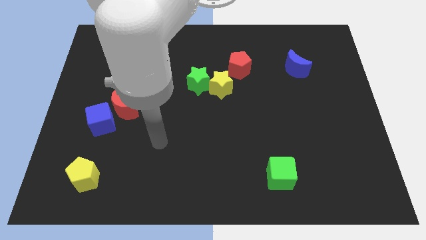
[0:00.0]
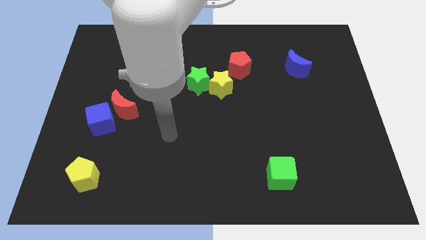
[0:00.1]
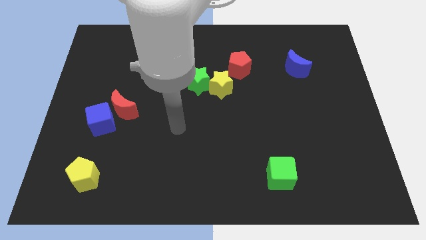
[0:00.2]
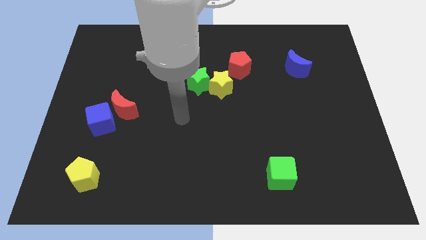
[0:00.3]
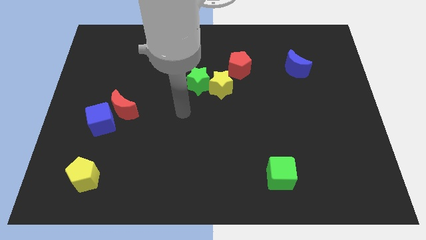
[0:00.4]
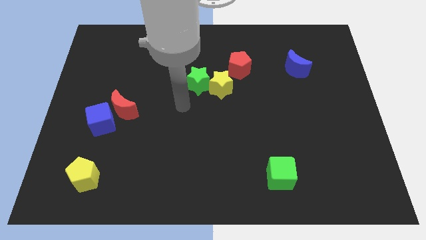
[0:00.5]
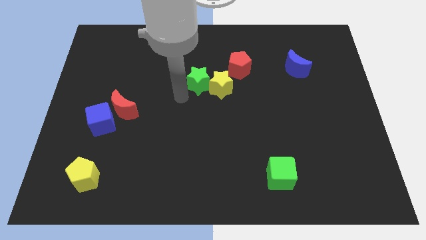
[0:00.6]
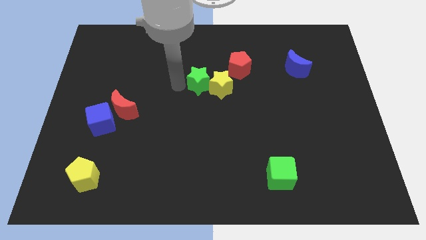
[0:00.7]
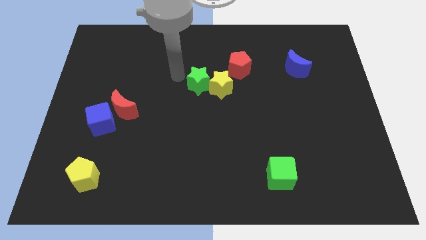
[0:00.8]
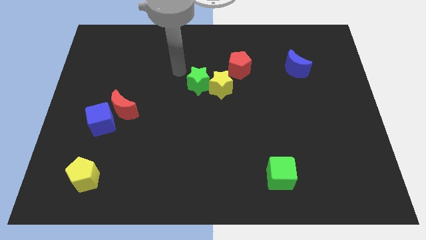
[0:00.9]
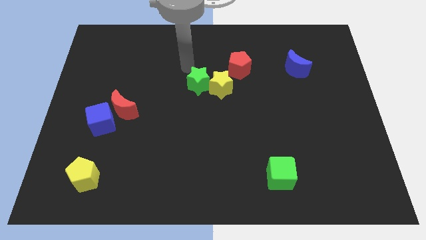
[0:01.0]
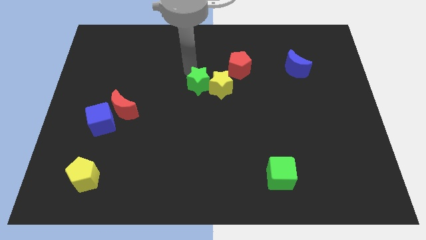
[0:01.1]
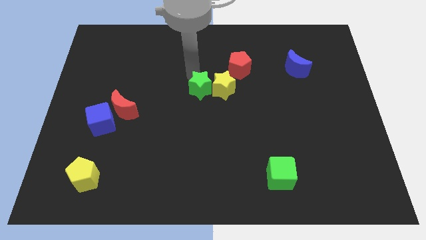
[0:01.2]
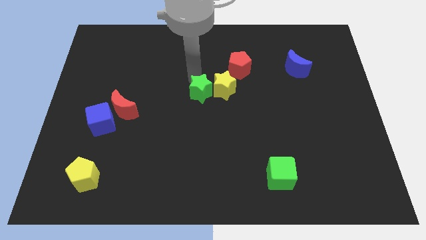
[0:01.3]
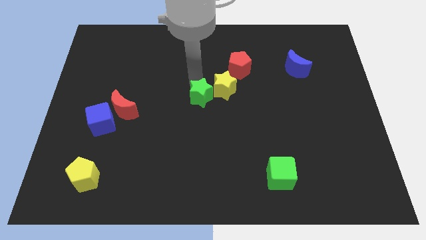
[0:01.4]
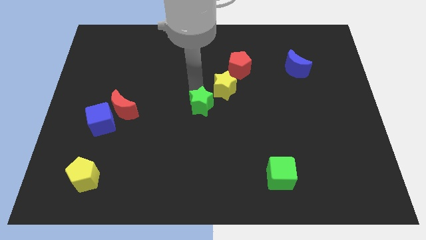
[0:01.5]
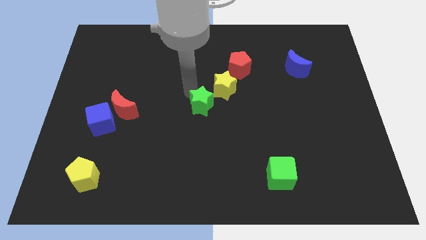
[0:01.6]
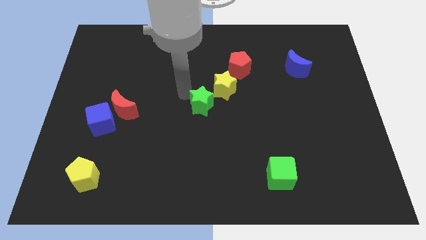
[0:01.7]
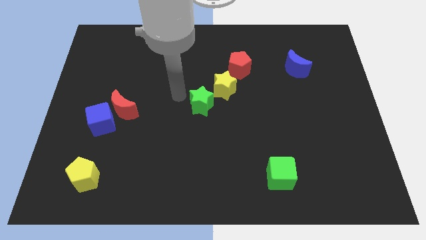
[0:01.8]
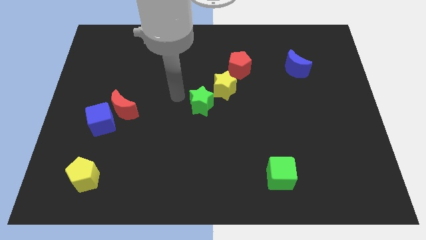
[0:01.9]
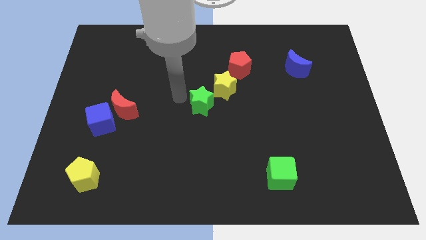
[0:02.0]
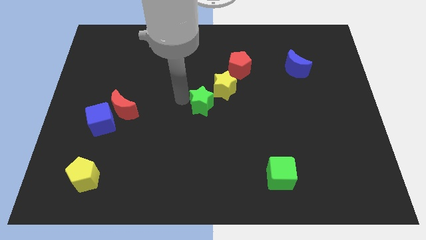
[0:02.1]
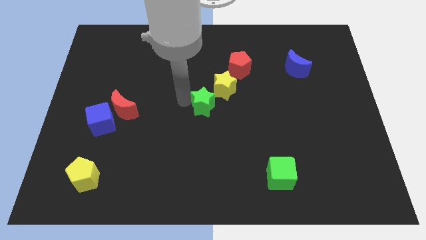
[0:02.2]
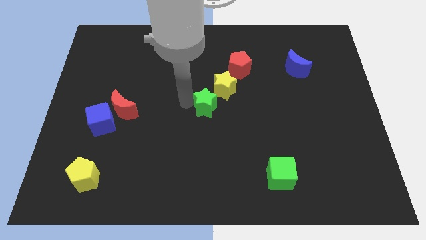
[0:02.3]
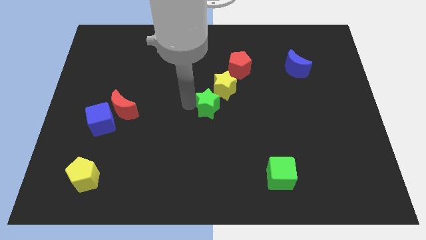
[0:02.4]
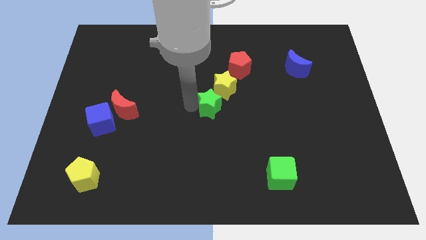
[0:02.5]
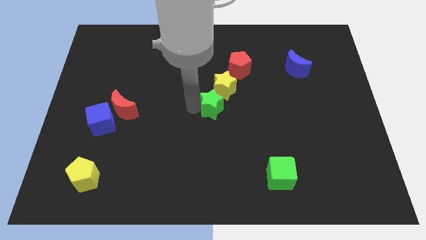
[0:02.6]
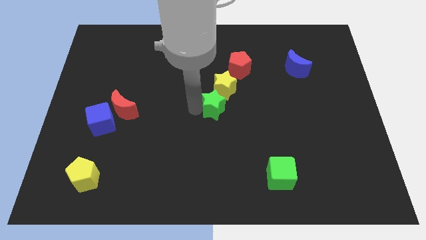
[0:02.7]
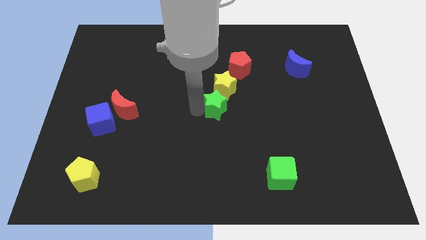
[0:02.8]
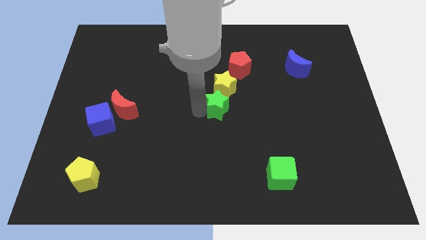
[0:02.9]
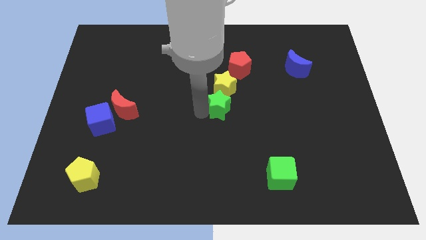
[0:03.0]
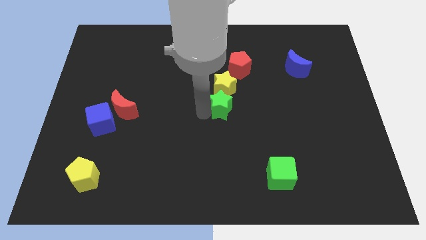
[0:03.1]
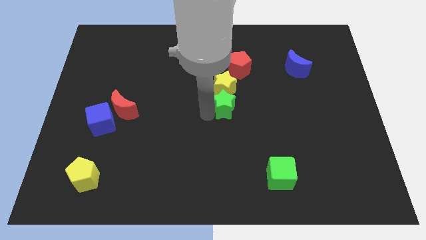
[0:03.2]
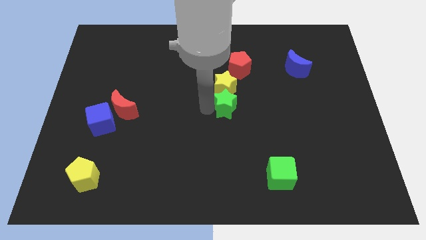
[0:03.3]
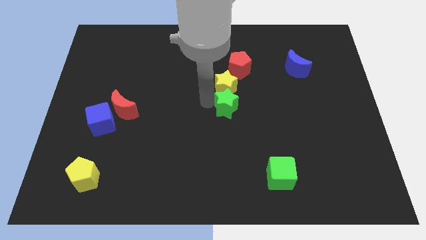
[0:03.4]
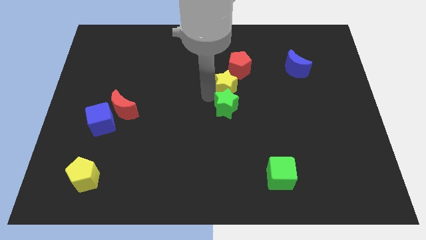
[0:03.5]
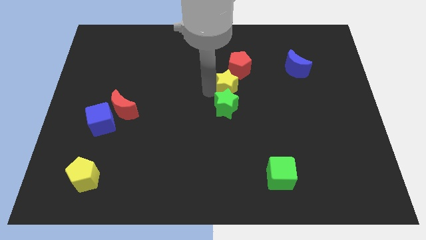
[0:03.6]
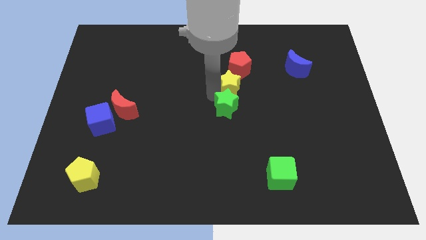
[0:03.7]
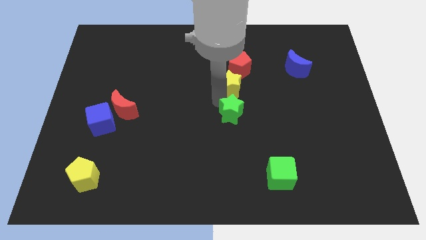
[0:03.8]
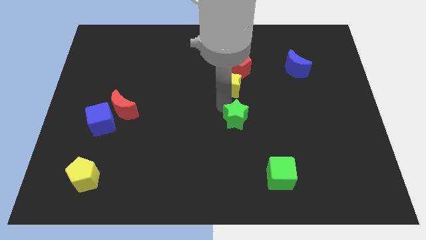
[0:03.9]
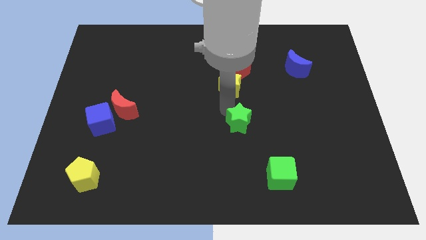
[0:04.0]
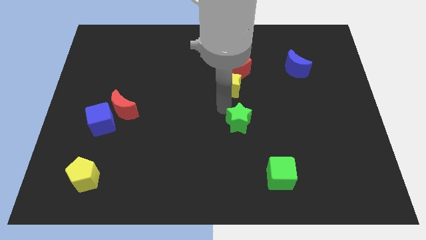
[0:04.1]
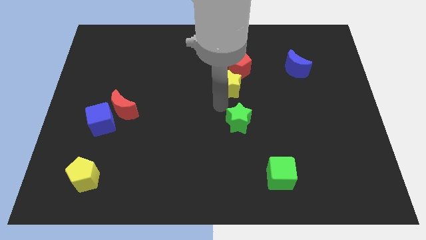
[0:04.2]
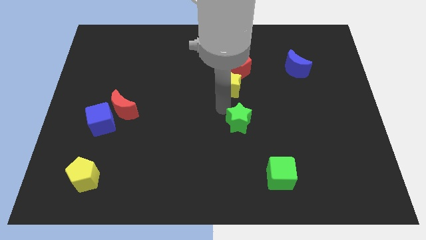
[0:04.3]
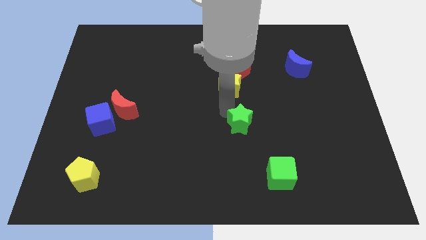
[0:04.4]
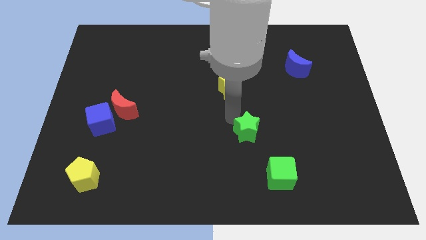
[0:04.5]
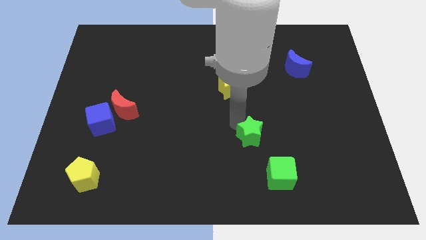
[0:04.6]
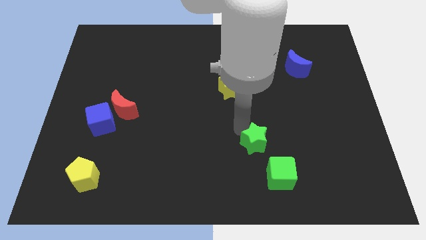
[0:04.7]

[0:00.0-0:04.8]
push the green star diagonally down and to the right

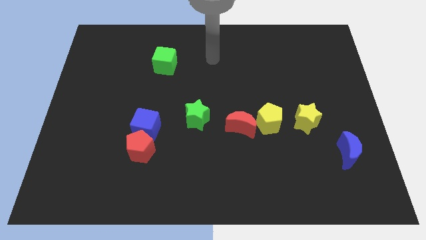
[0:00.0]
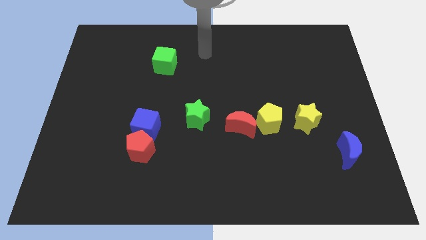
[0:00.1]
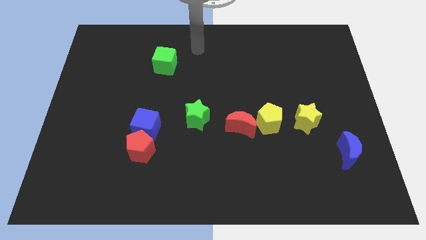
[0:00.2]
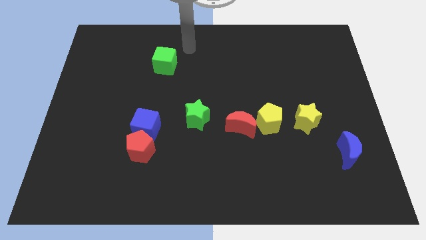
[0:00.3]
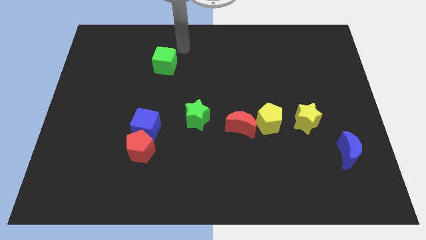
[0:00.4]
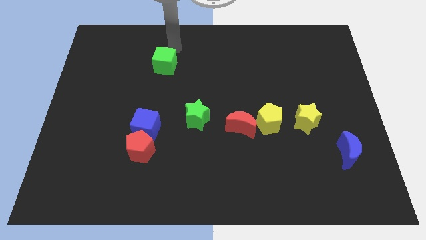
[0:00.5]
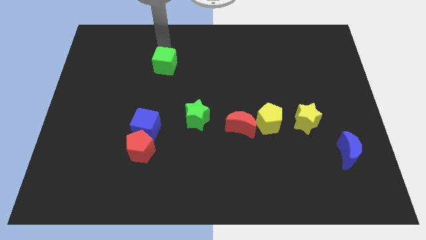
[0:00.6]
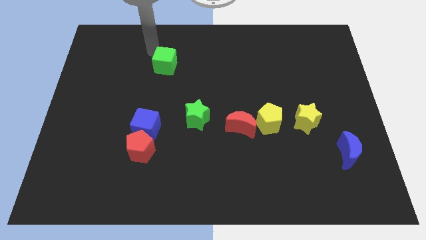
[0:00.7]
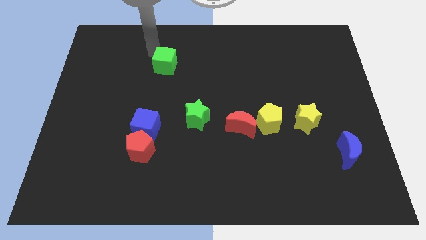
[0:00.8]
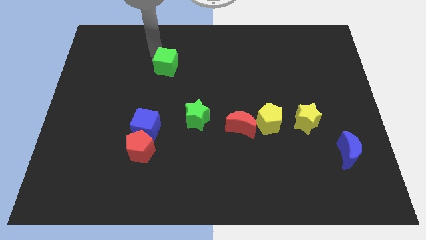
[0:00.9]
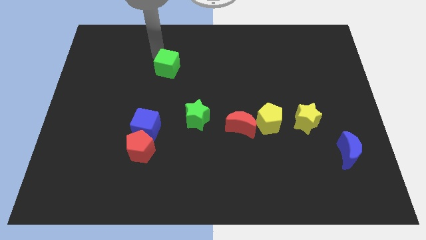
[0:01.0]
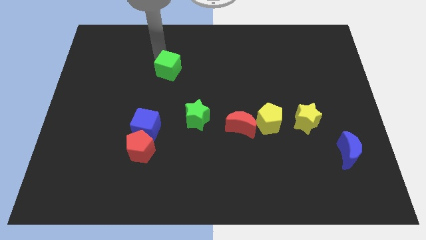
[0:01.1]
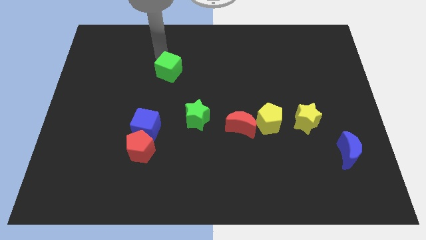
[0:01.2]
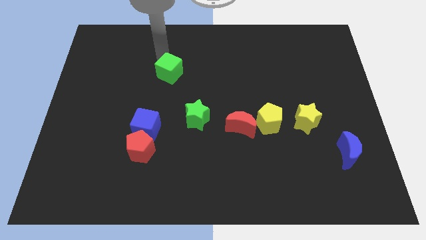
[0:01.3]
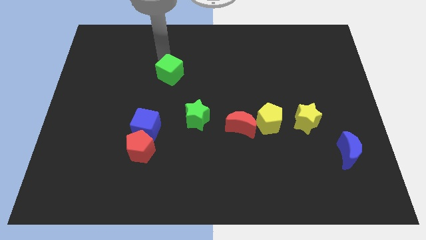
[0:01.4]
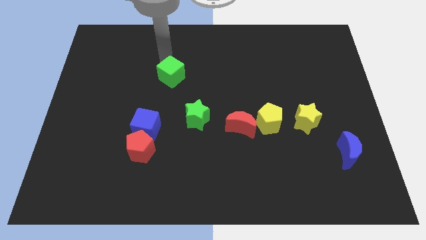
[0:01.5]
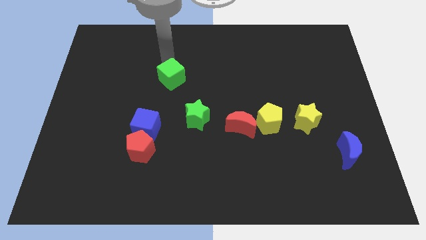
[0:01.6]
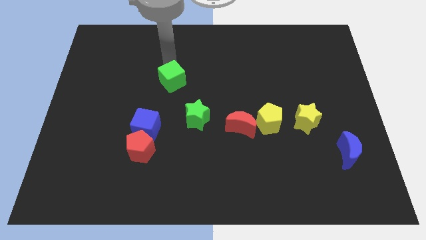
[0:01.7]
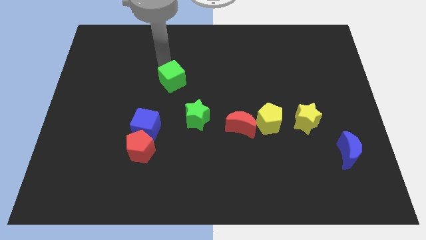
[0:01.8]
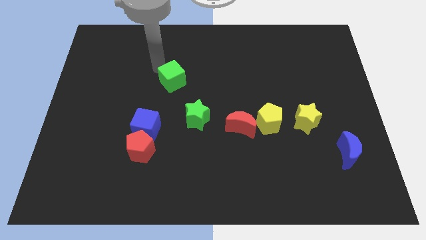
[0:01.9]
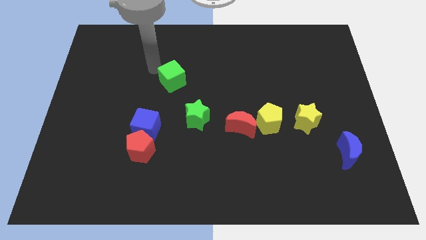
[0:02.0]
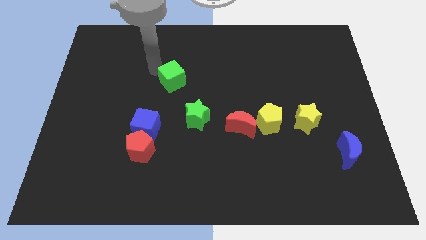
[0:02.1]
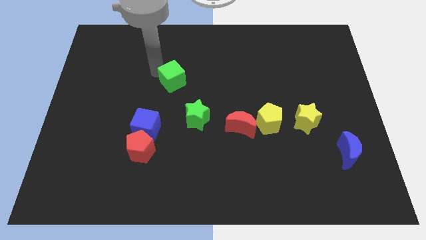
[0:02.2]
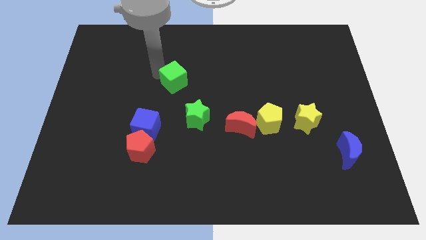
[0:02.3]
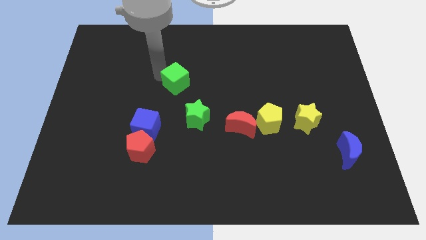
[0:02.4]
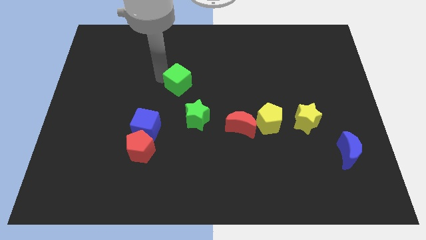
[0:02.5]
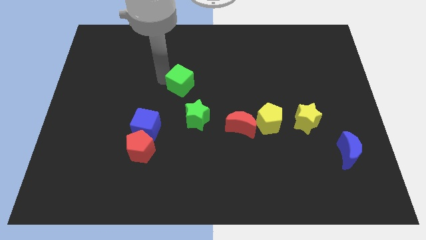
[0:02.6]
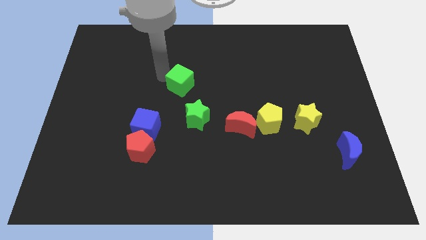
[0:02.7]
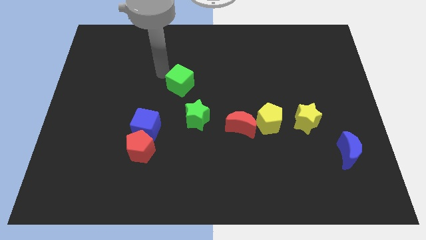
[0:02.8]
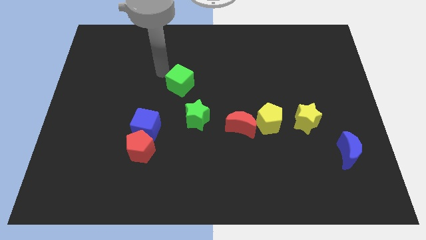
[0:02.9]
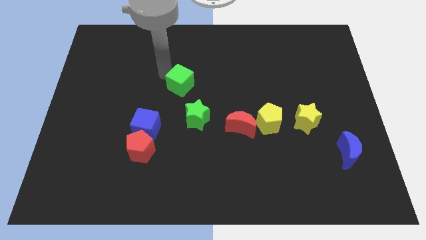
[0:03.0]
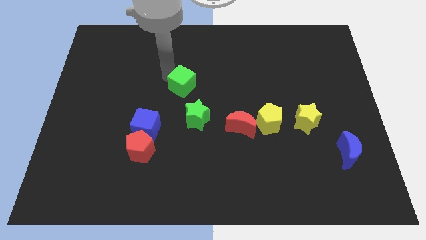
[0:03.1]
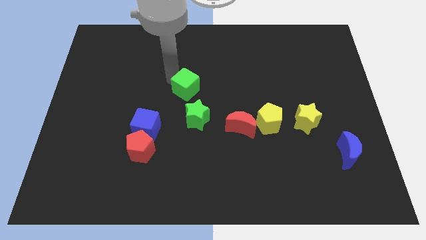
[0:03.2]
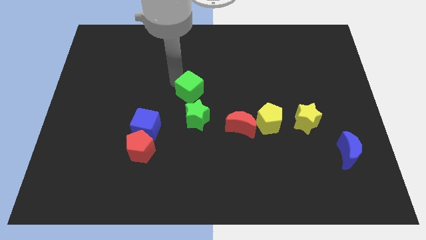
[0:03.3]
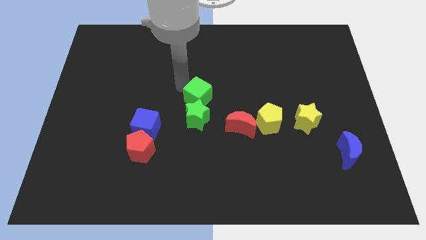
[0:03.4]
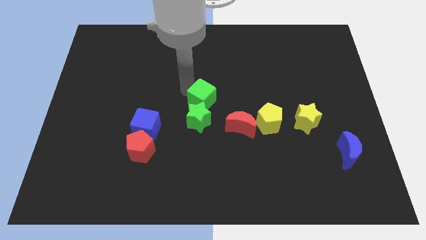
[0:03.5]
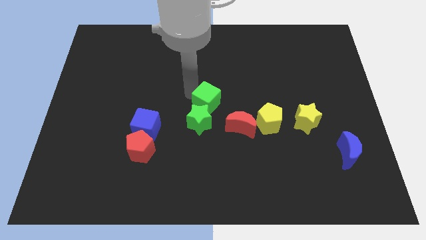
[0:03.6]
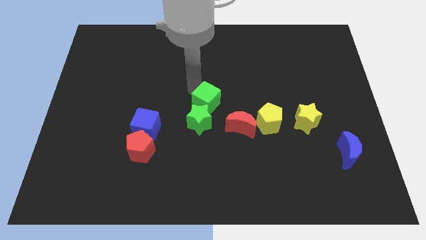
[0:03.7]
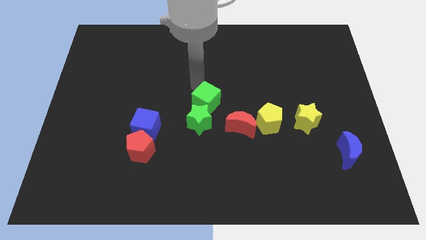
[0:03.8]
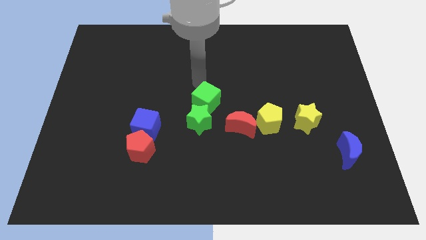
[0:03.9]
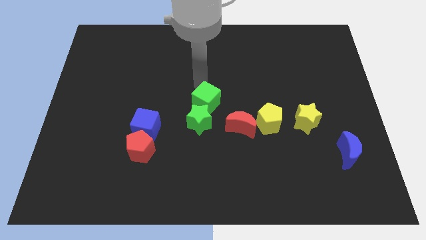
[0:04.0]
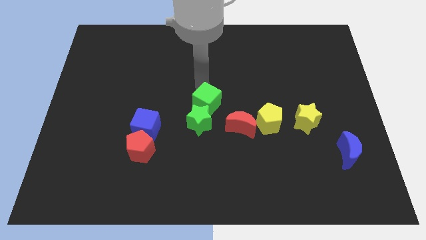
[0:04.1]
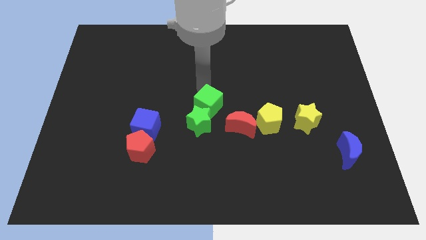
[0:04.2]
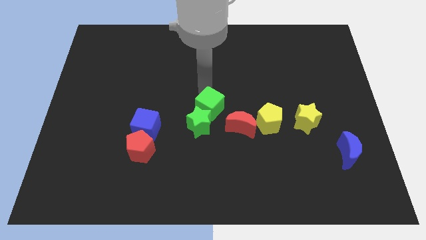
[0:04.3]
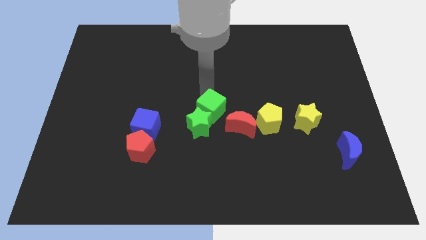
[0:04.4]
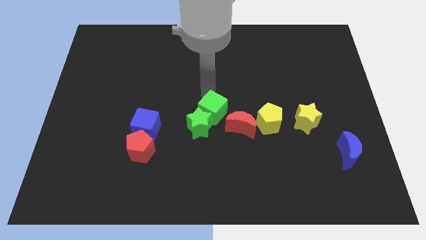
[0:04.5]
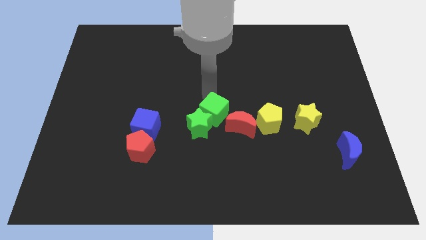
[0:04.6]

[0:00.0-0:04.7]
push the green cube down and to the right diagonally
